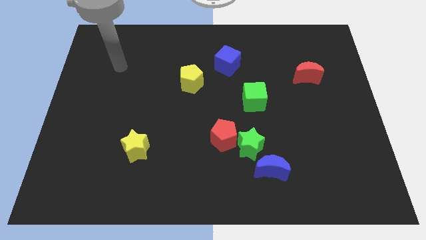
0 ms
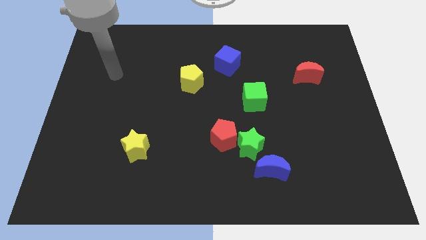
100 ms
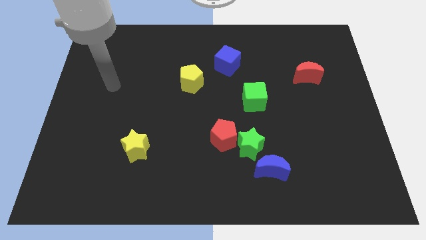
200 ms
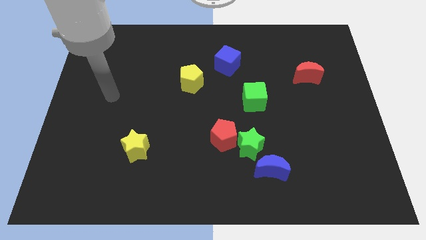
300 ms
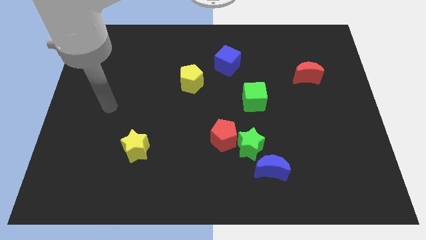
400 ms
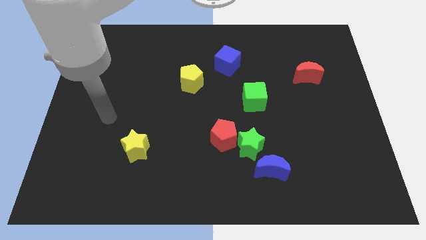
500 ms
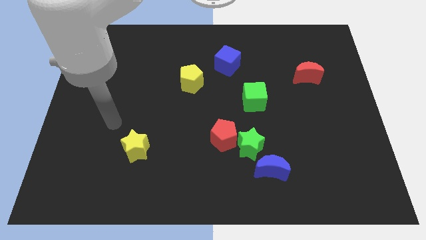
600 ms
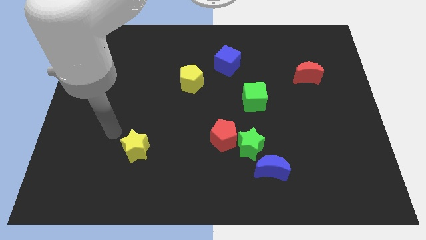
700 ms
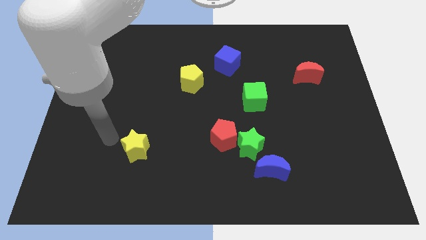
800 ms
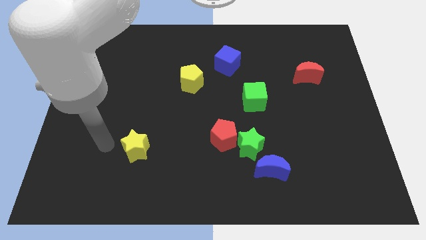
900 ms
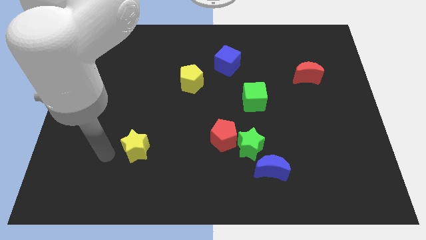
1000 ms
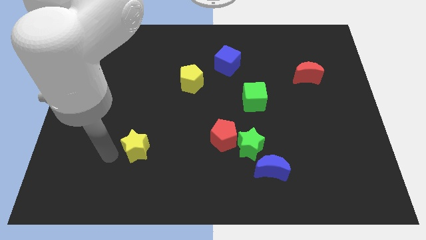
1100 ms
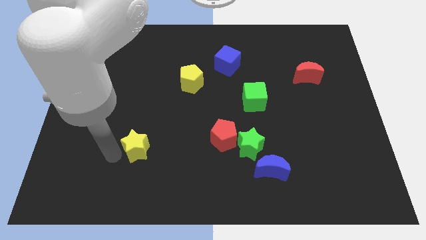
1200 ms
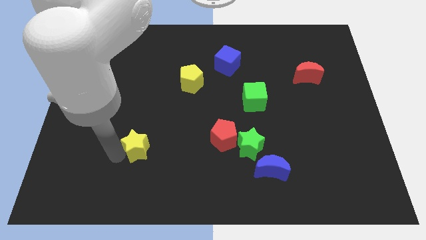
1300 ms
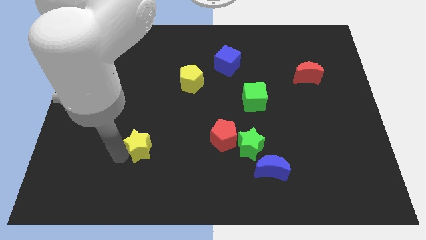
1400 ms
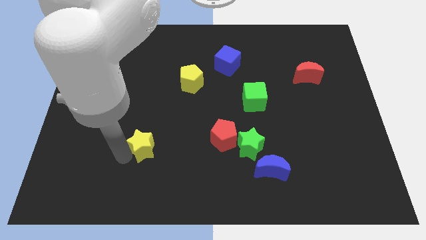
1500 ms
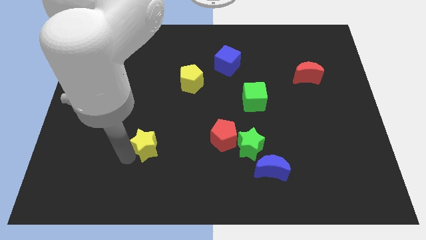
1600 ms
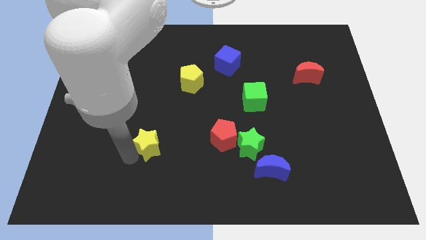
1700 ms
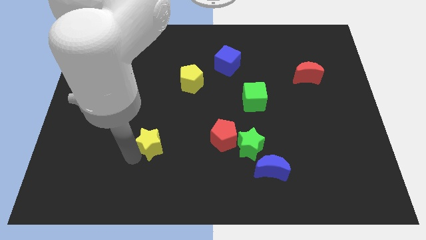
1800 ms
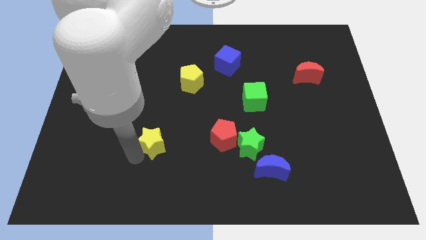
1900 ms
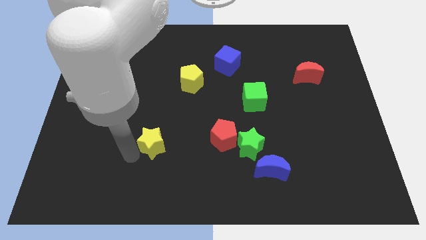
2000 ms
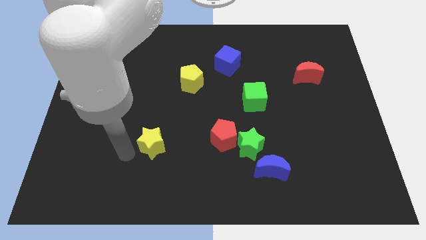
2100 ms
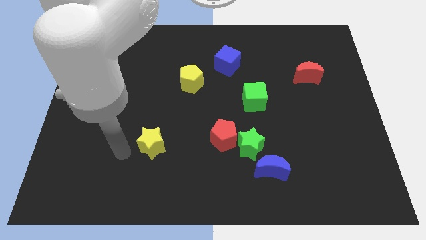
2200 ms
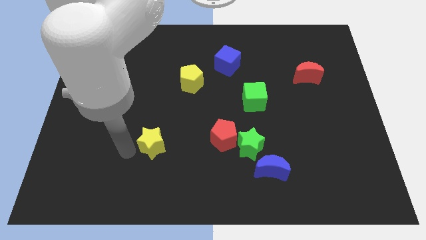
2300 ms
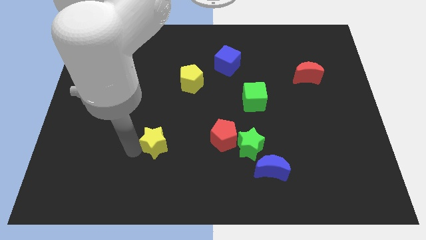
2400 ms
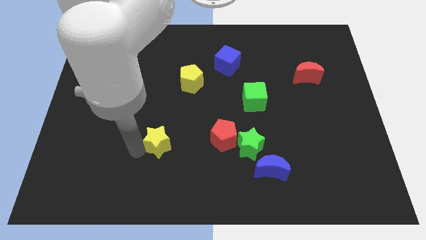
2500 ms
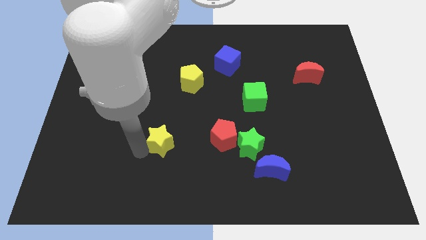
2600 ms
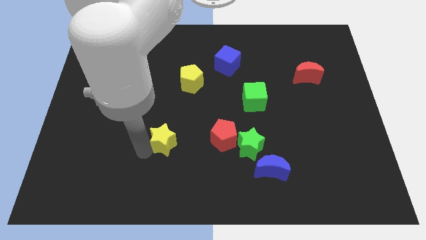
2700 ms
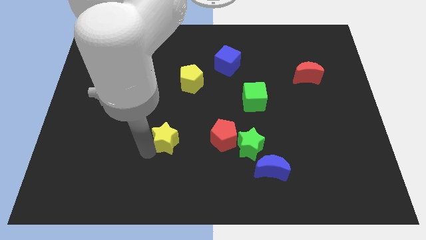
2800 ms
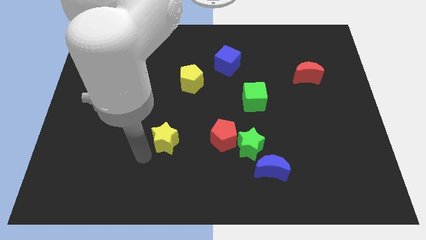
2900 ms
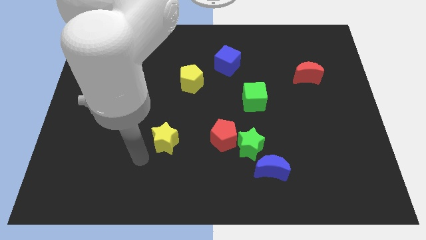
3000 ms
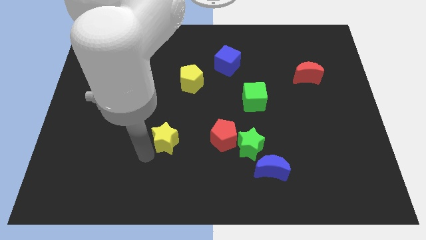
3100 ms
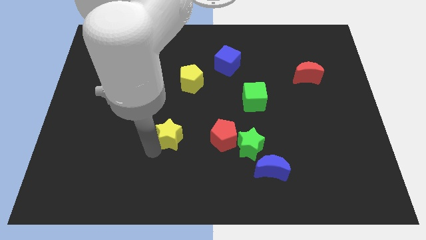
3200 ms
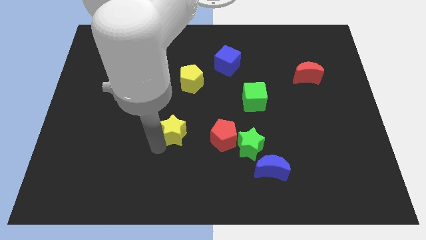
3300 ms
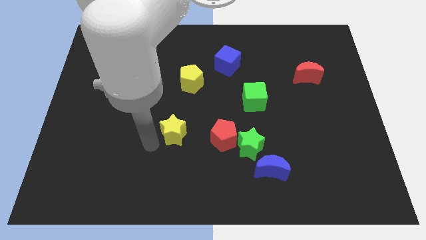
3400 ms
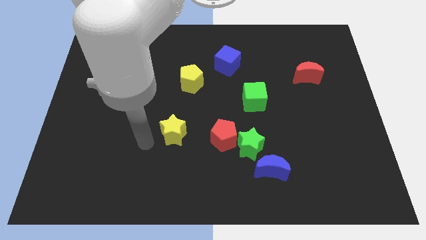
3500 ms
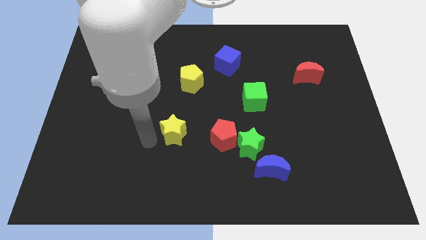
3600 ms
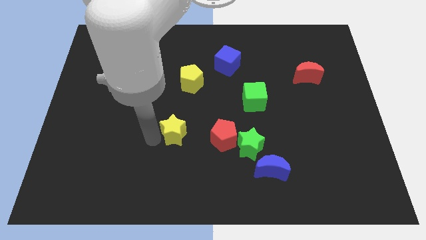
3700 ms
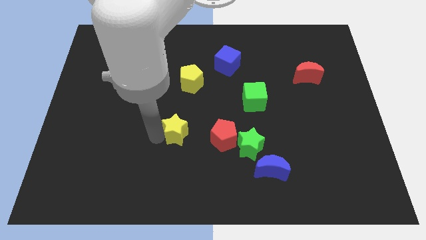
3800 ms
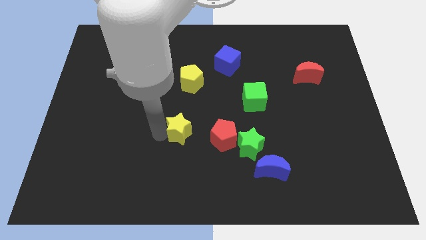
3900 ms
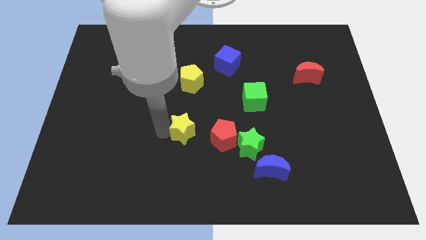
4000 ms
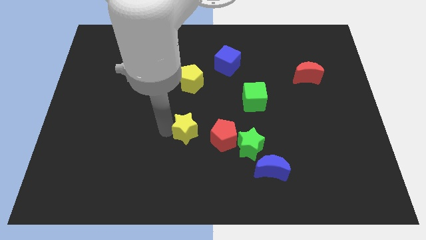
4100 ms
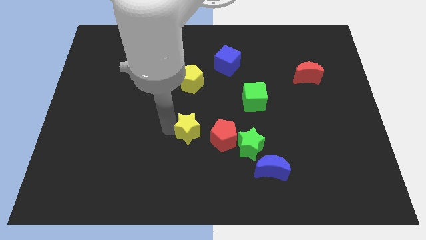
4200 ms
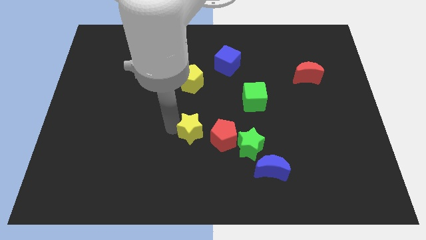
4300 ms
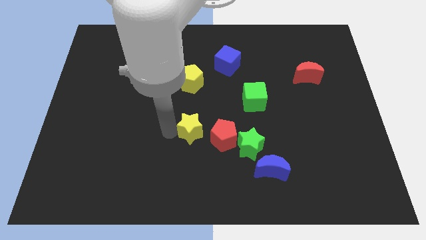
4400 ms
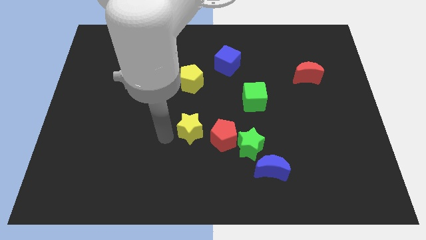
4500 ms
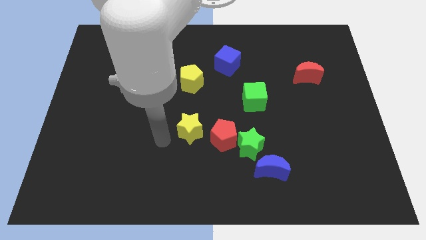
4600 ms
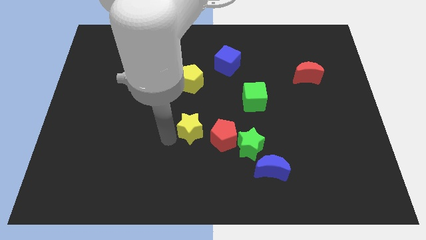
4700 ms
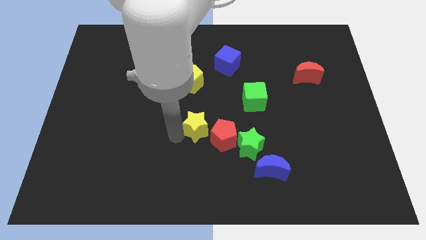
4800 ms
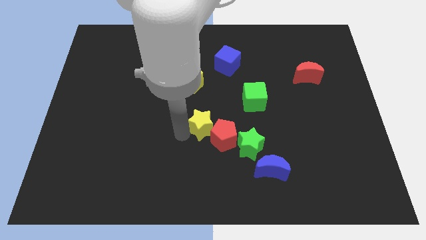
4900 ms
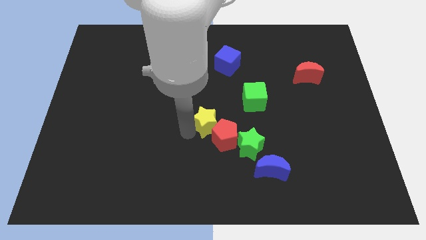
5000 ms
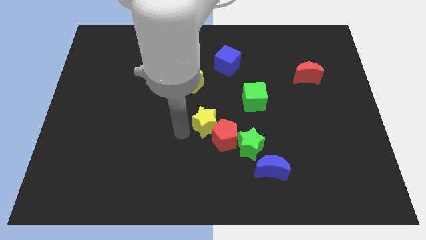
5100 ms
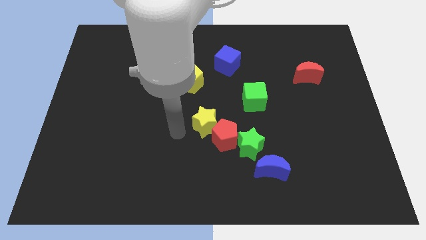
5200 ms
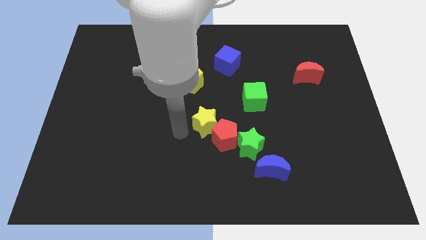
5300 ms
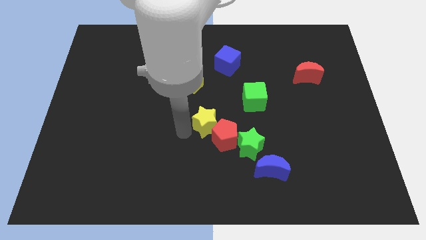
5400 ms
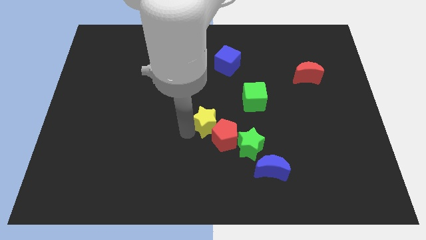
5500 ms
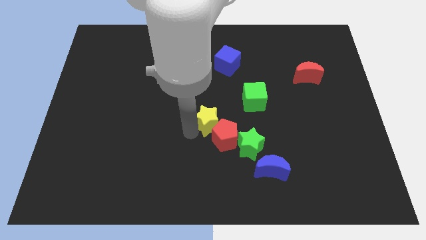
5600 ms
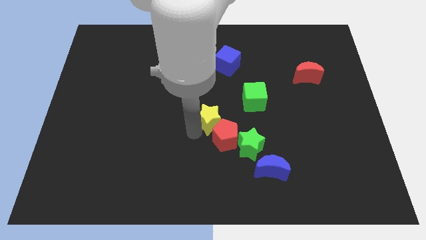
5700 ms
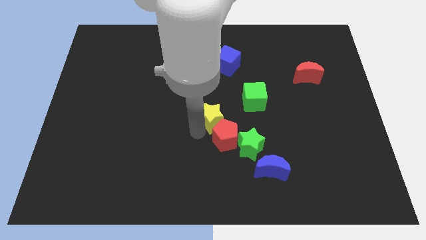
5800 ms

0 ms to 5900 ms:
slide the yellow star diagonally down and to the left of the green cube

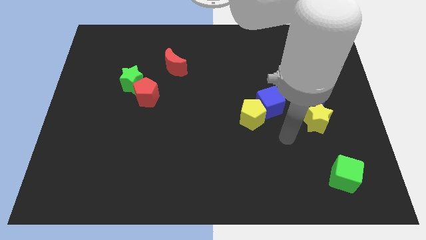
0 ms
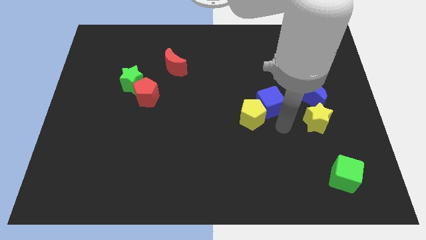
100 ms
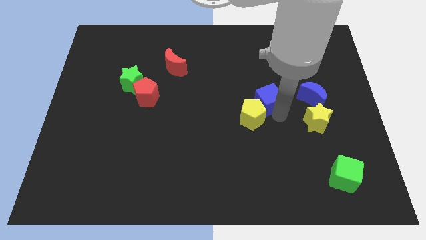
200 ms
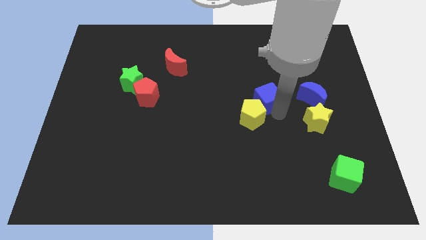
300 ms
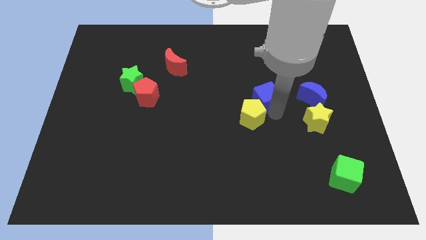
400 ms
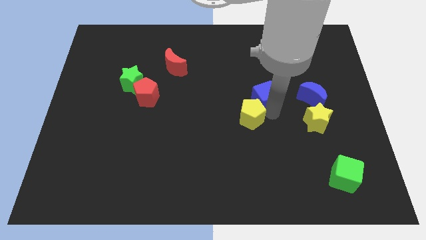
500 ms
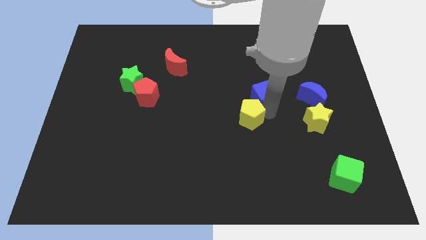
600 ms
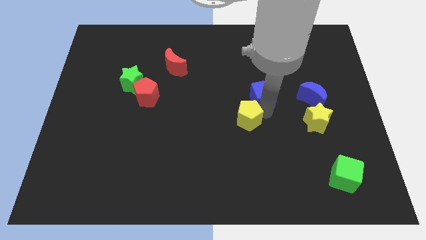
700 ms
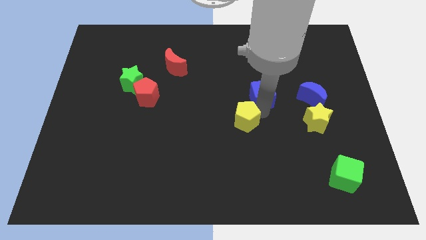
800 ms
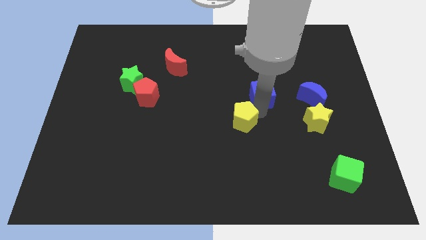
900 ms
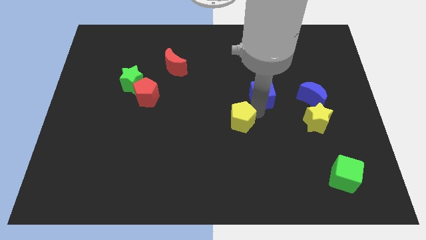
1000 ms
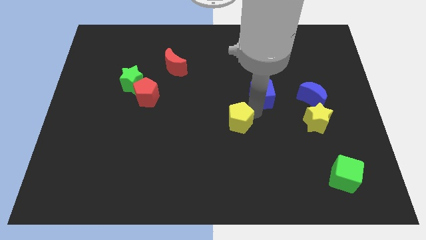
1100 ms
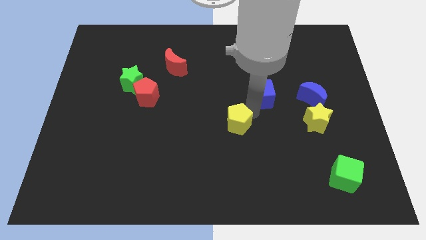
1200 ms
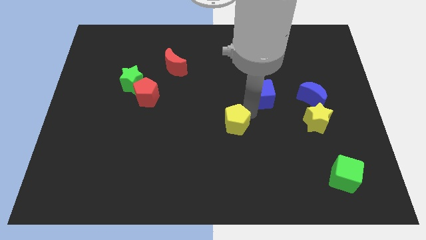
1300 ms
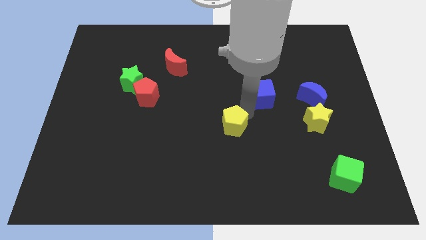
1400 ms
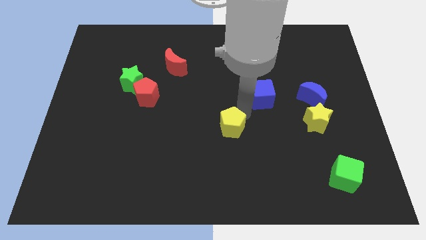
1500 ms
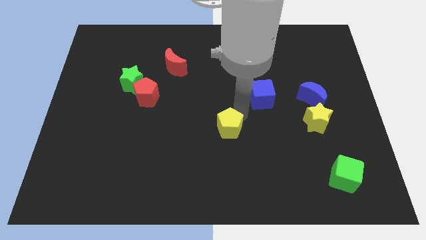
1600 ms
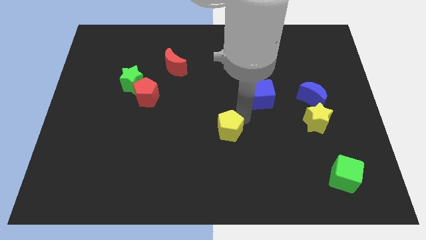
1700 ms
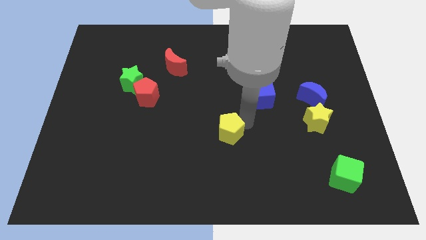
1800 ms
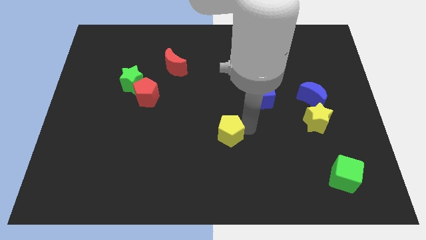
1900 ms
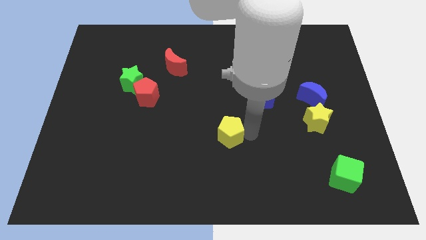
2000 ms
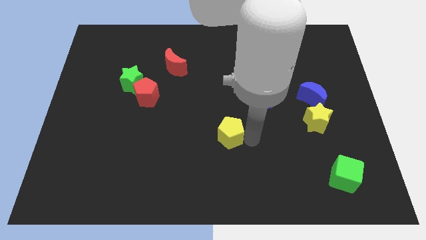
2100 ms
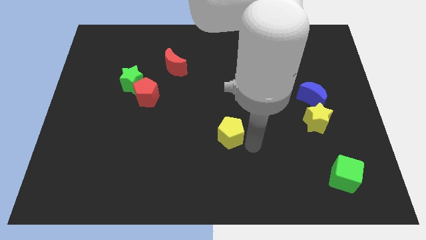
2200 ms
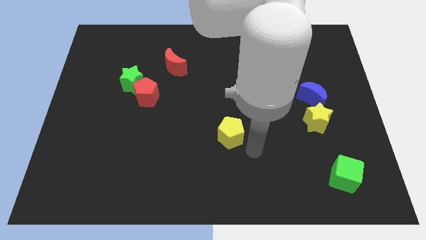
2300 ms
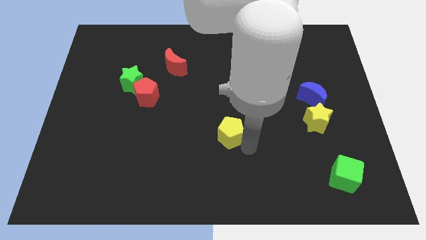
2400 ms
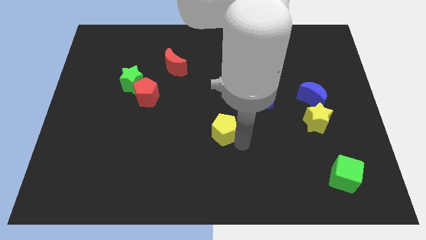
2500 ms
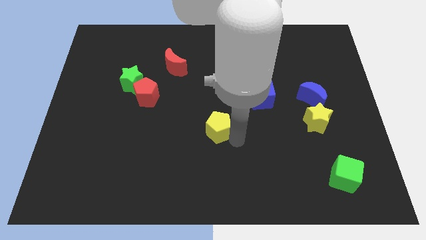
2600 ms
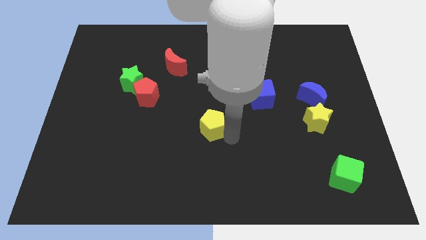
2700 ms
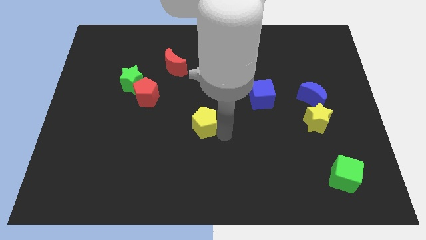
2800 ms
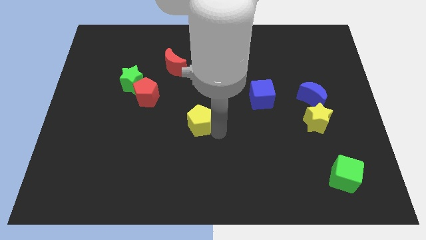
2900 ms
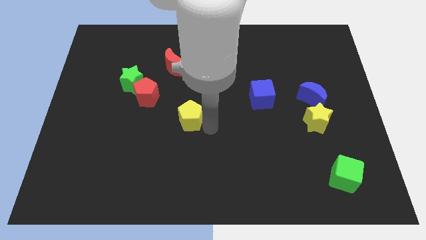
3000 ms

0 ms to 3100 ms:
push the yellow pentagon to the bottom right of the red pentagon
